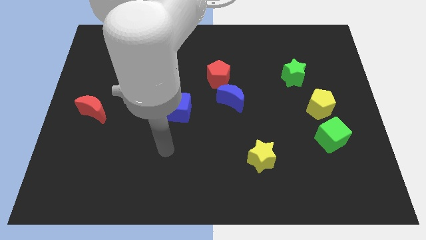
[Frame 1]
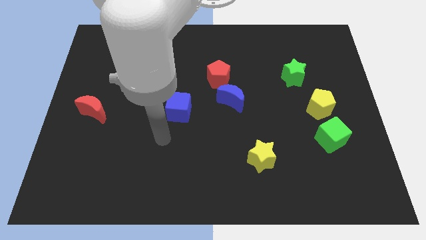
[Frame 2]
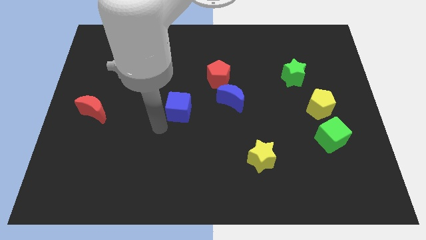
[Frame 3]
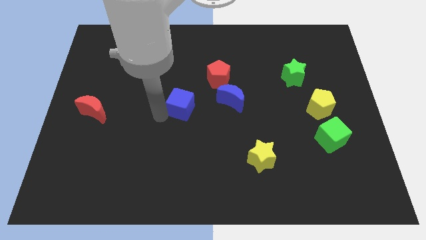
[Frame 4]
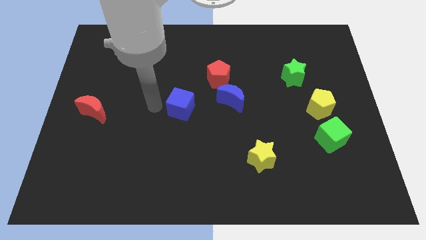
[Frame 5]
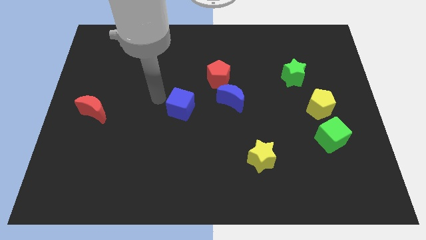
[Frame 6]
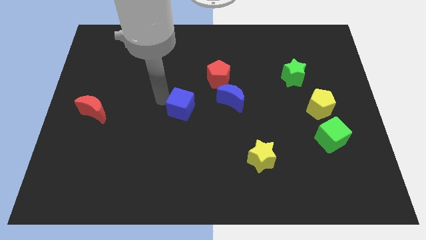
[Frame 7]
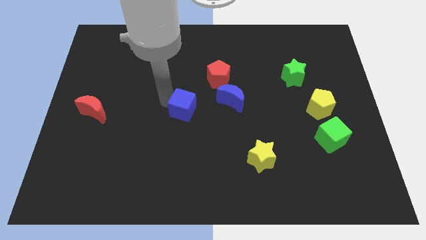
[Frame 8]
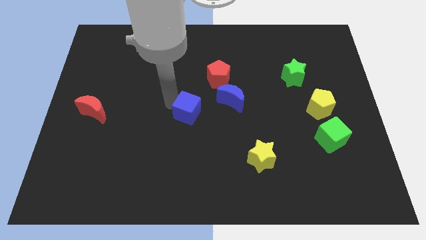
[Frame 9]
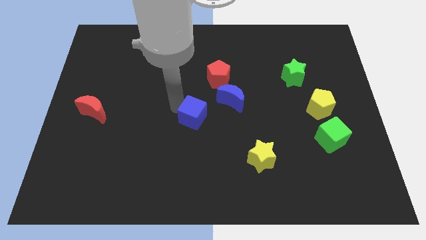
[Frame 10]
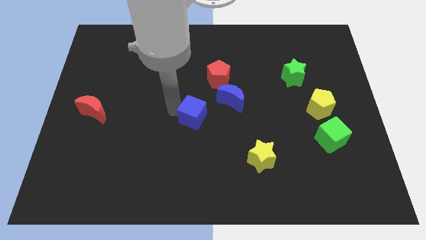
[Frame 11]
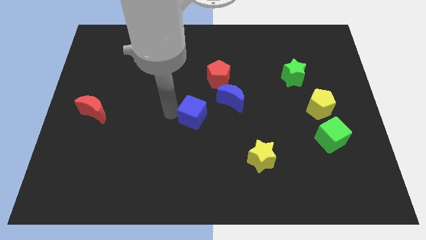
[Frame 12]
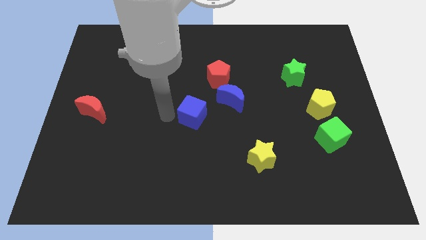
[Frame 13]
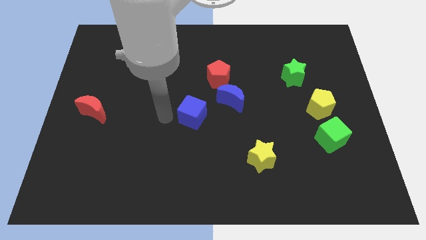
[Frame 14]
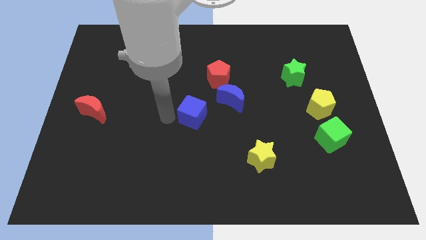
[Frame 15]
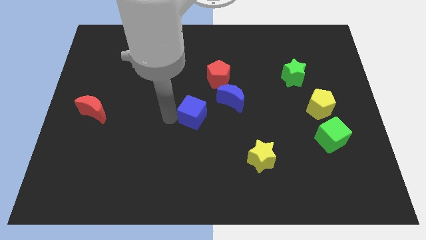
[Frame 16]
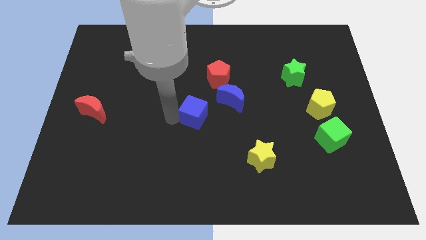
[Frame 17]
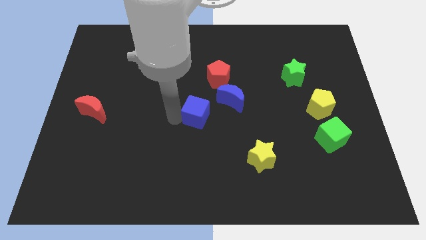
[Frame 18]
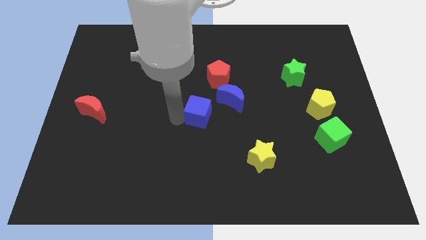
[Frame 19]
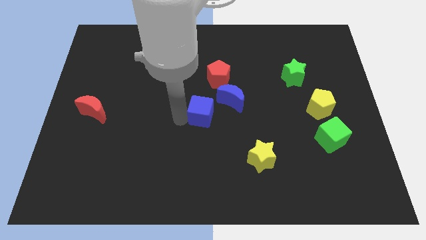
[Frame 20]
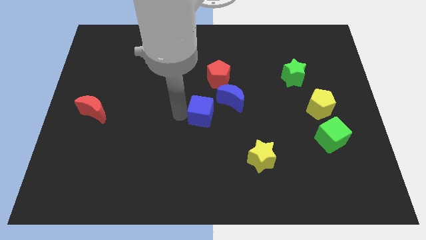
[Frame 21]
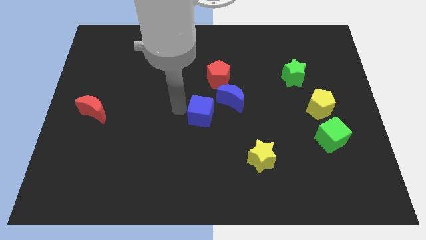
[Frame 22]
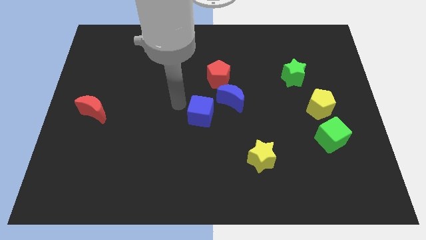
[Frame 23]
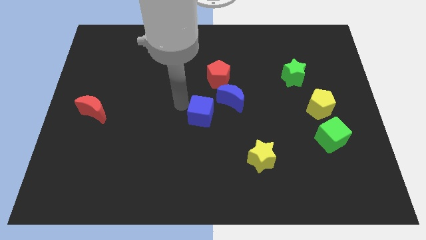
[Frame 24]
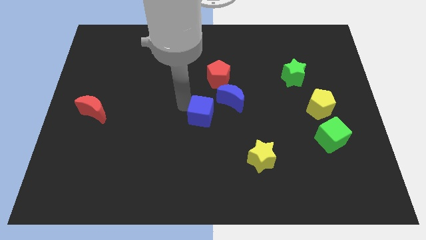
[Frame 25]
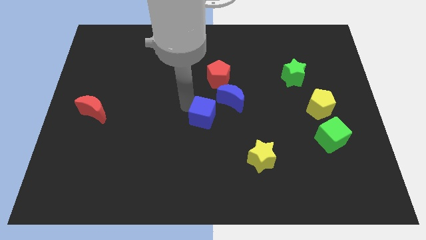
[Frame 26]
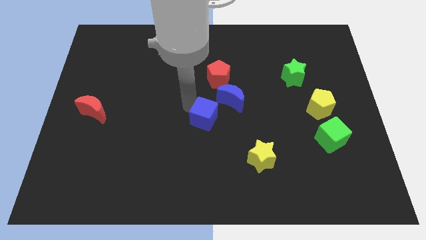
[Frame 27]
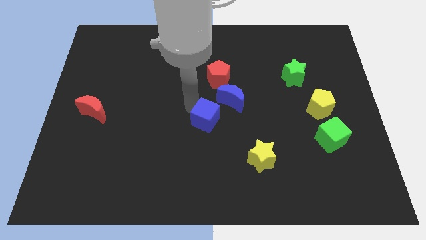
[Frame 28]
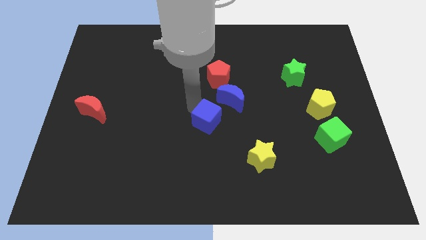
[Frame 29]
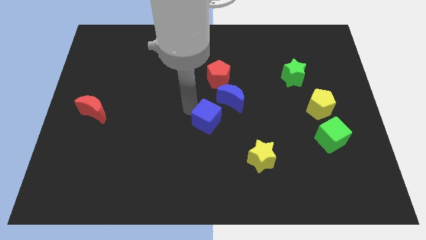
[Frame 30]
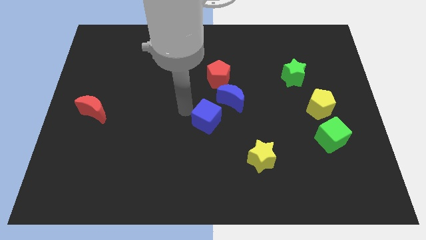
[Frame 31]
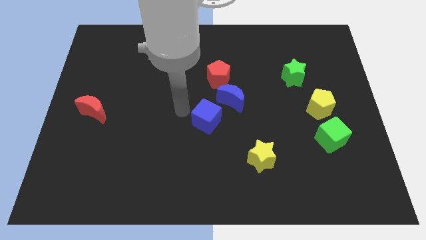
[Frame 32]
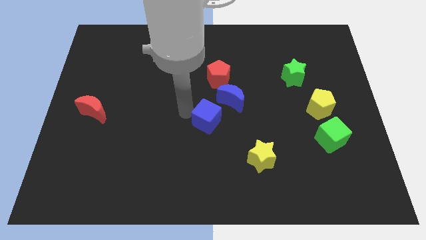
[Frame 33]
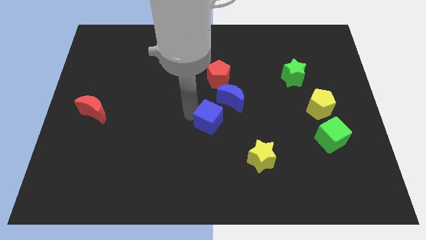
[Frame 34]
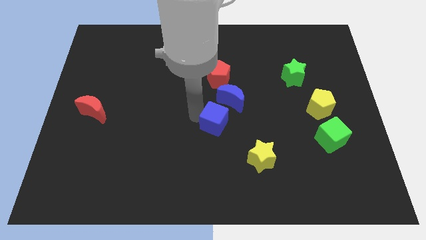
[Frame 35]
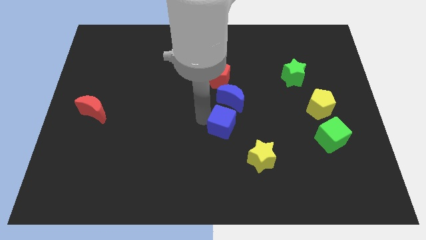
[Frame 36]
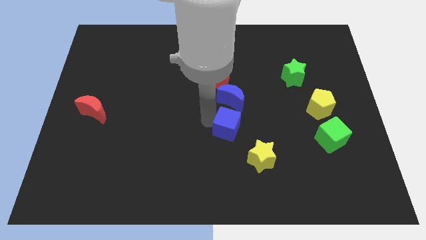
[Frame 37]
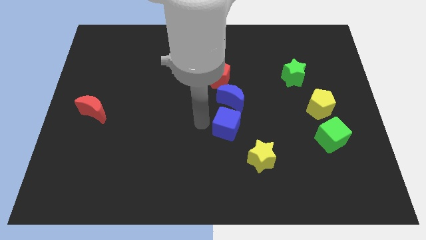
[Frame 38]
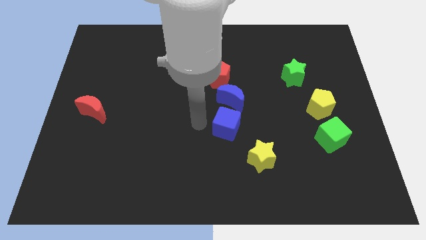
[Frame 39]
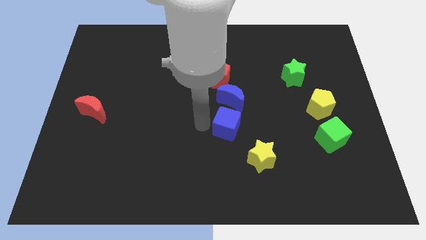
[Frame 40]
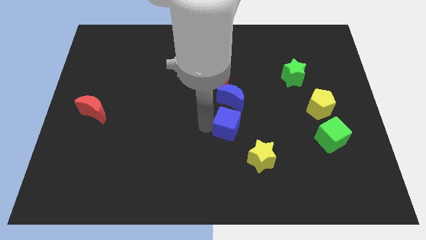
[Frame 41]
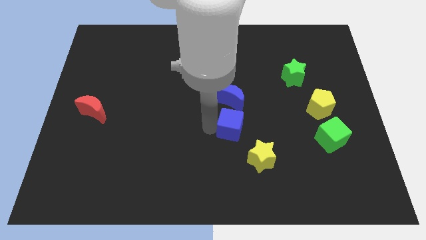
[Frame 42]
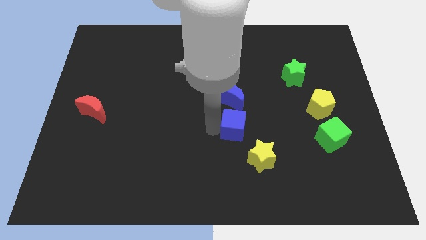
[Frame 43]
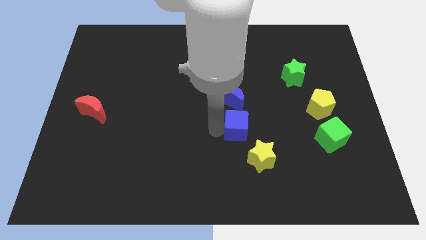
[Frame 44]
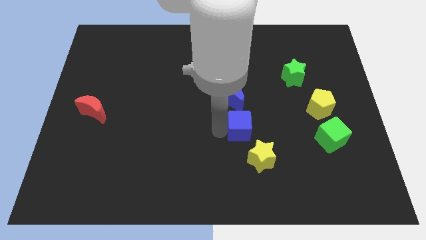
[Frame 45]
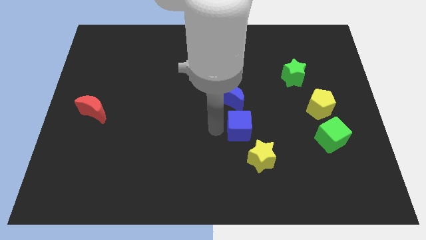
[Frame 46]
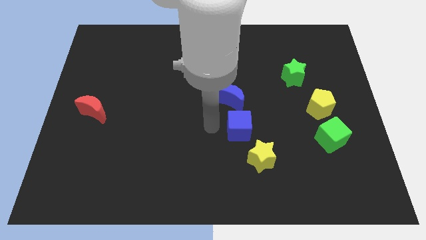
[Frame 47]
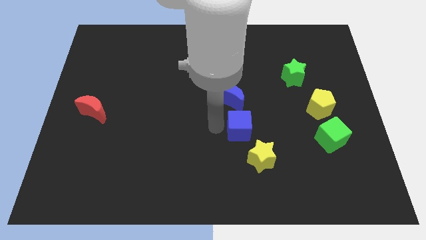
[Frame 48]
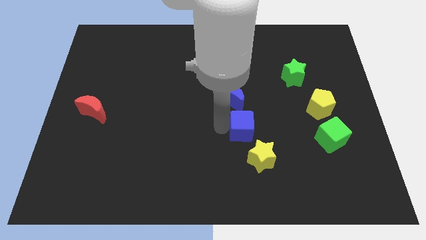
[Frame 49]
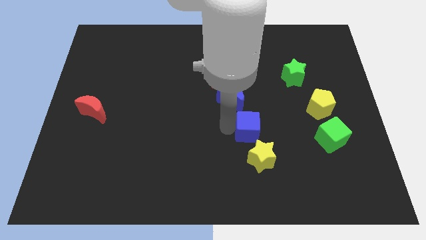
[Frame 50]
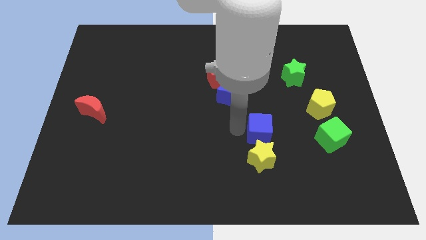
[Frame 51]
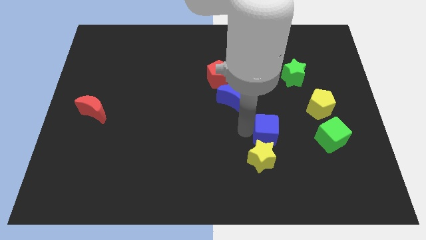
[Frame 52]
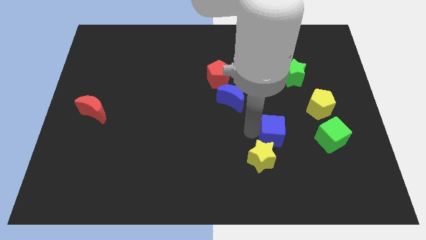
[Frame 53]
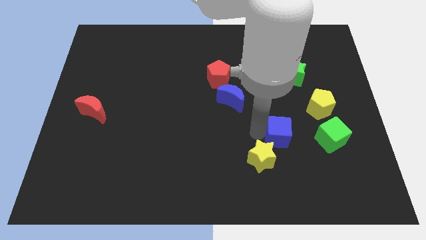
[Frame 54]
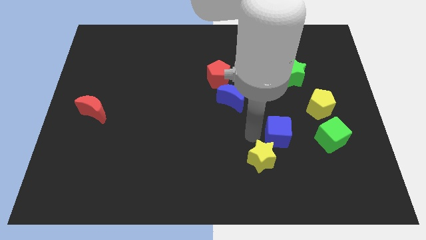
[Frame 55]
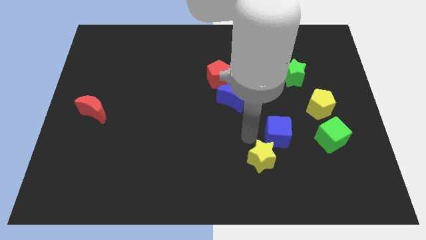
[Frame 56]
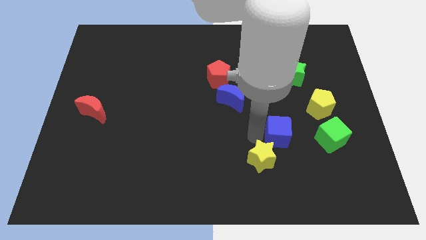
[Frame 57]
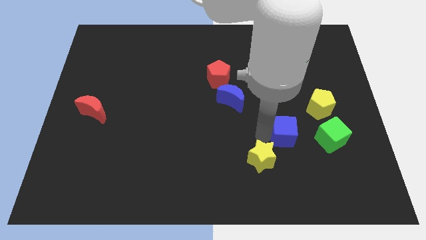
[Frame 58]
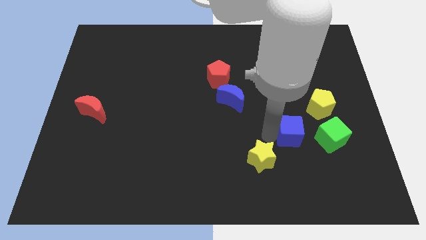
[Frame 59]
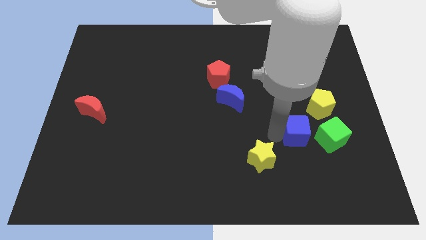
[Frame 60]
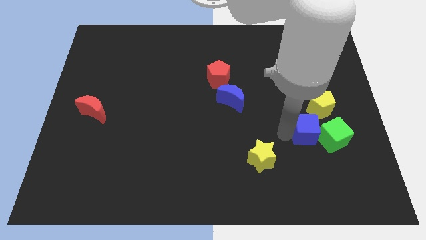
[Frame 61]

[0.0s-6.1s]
slide the blue cube next to the green cube

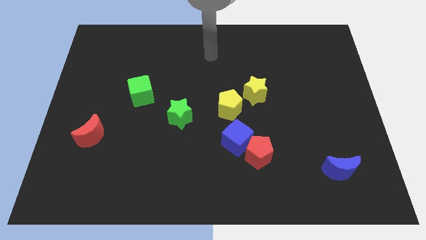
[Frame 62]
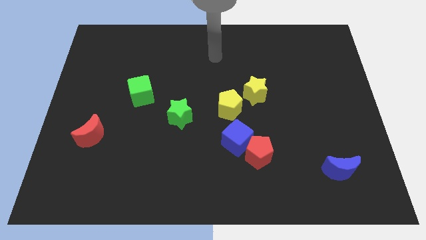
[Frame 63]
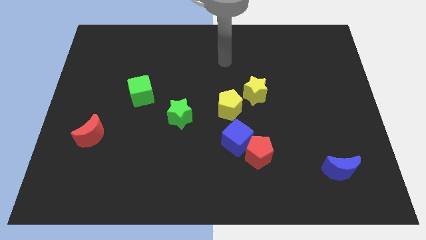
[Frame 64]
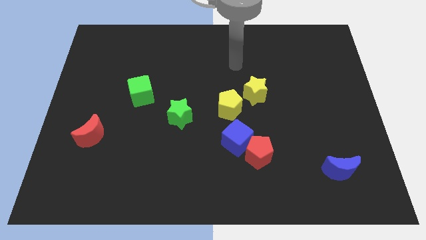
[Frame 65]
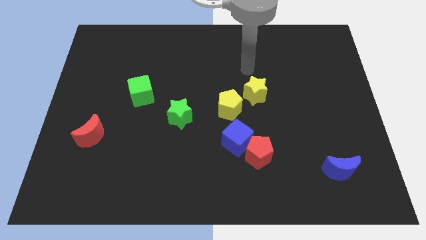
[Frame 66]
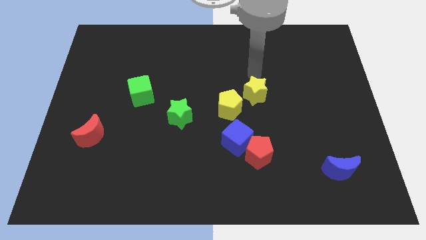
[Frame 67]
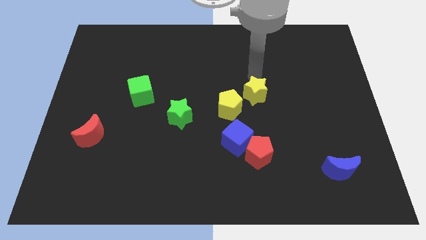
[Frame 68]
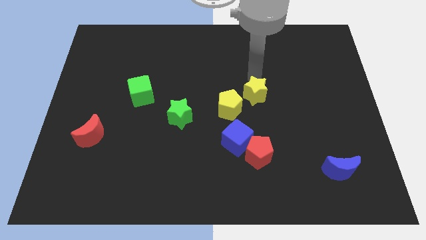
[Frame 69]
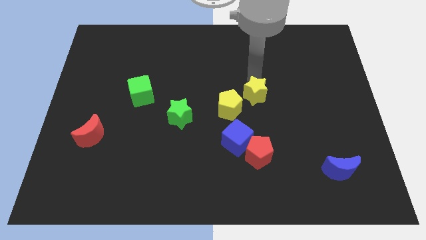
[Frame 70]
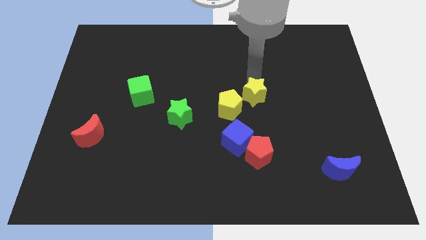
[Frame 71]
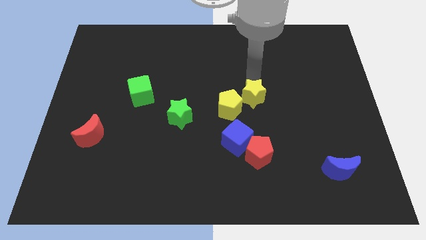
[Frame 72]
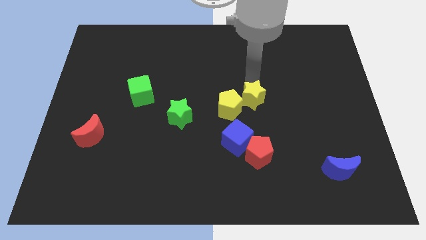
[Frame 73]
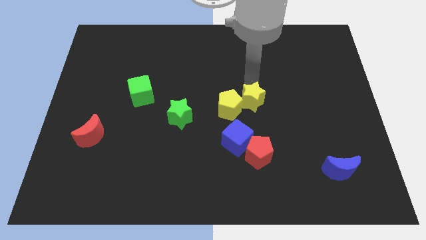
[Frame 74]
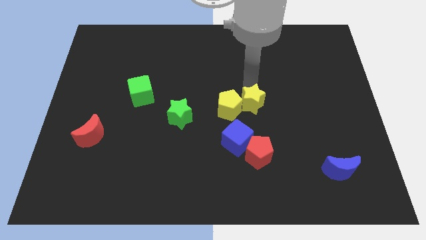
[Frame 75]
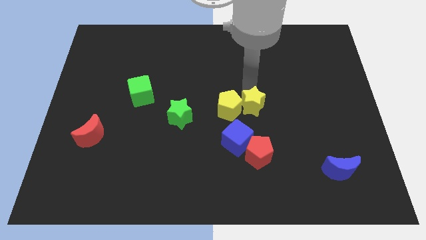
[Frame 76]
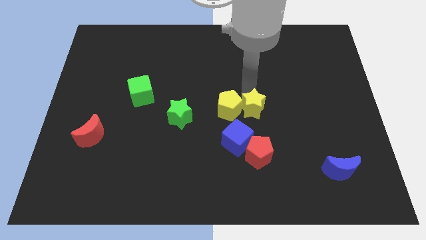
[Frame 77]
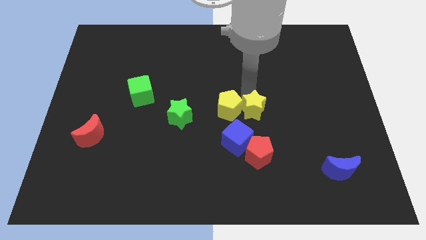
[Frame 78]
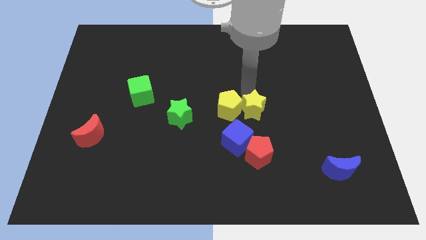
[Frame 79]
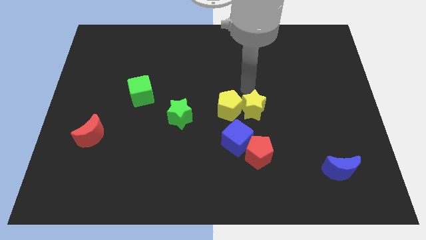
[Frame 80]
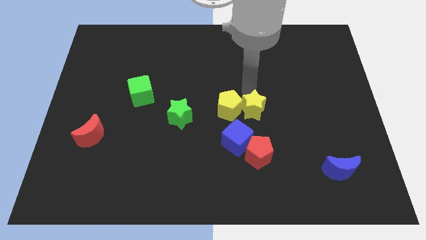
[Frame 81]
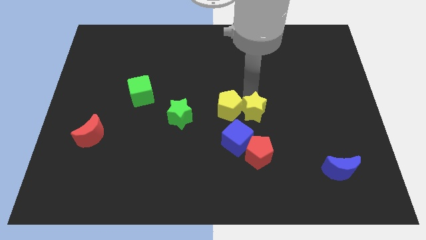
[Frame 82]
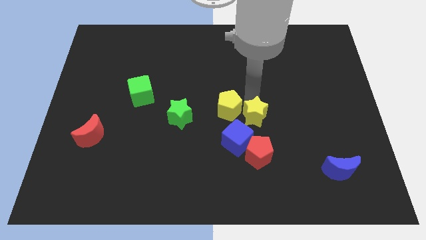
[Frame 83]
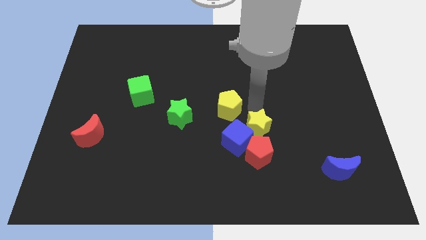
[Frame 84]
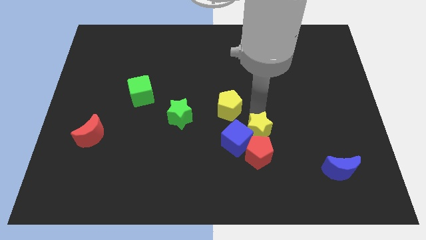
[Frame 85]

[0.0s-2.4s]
slide the yellow star next to the red pentagon
